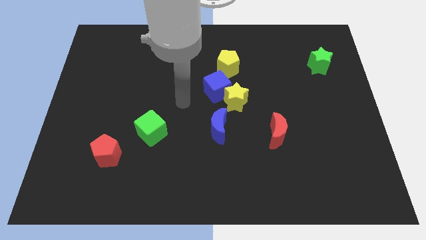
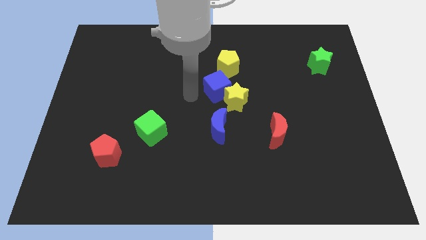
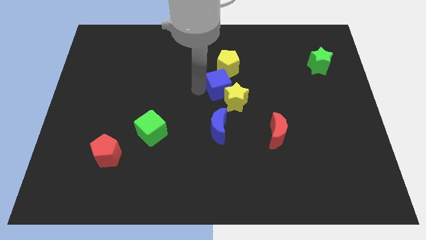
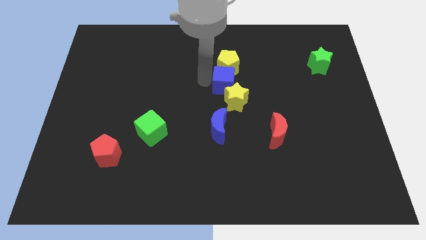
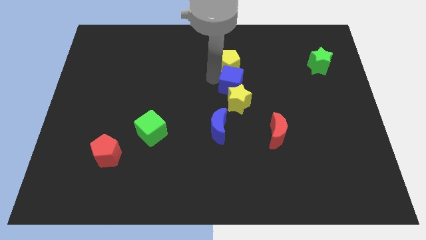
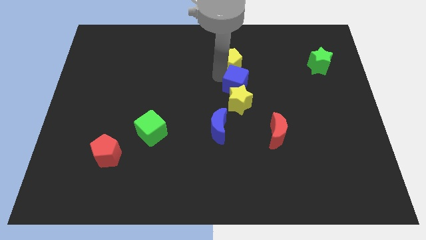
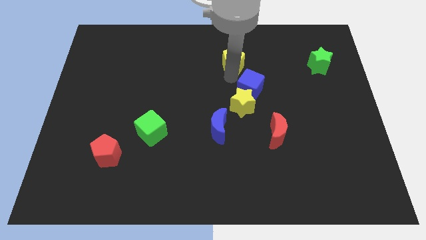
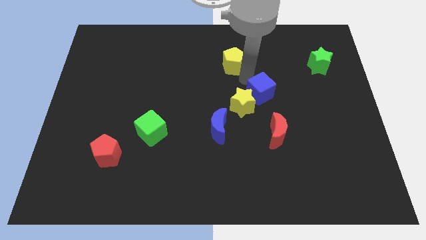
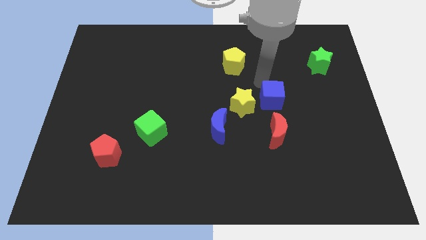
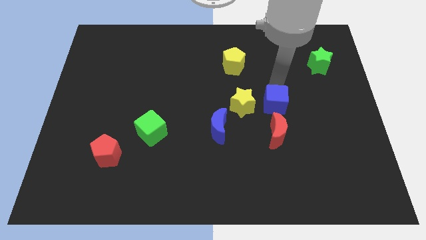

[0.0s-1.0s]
move the blue cube away from the yellow star and yellow pentagon

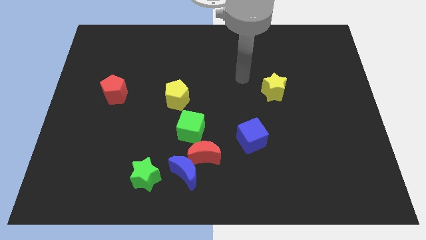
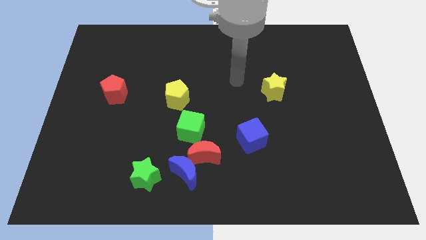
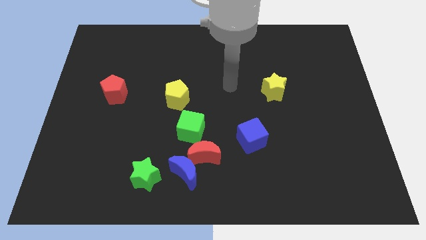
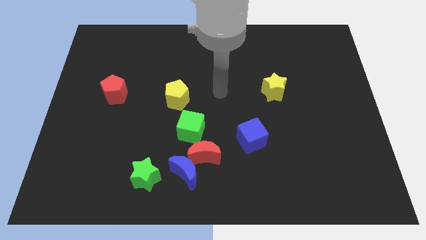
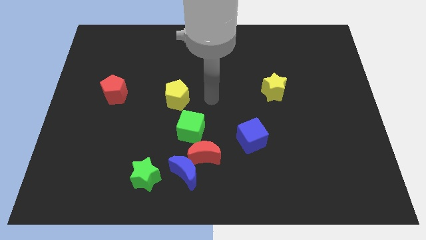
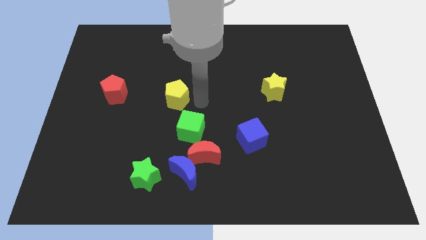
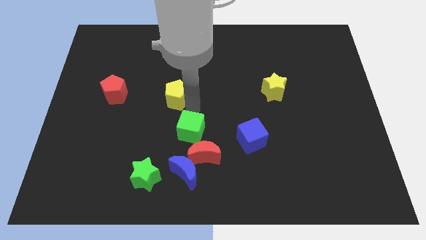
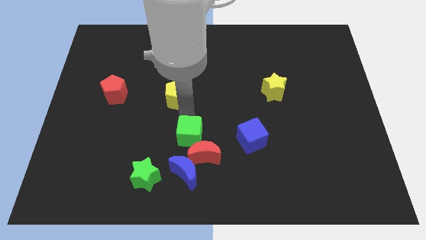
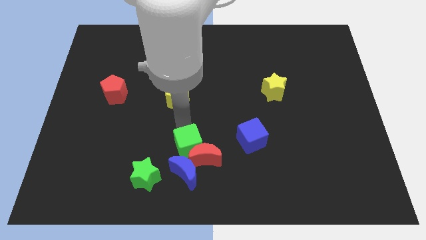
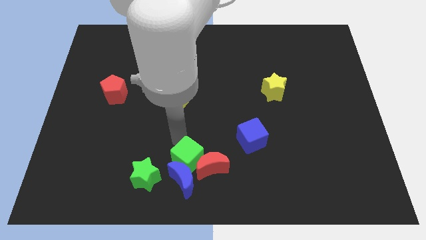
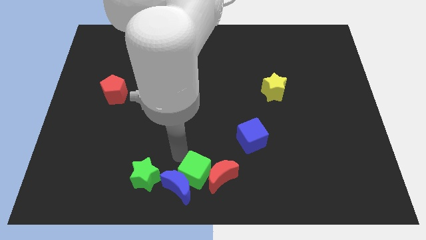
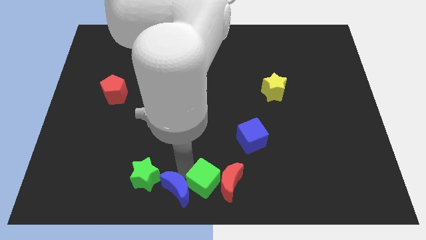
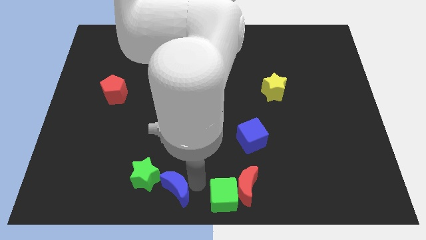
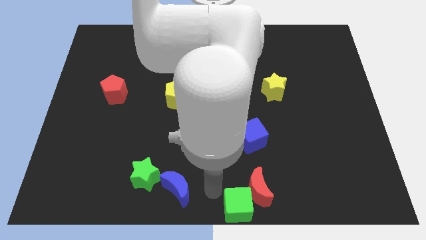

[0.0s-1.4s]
separate the red moon from the blue moon and green cube

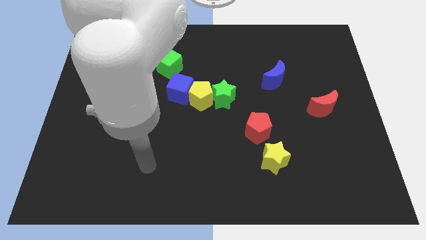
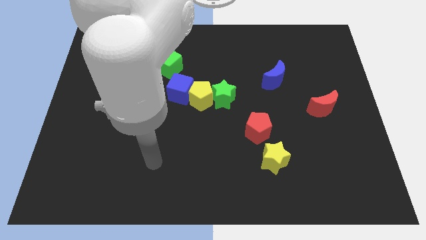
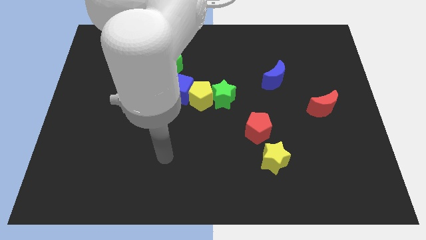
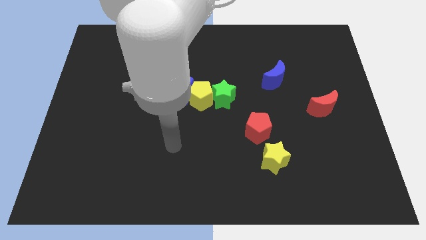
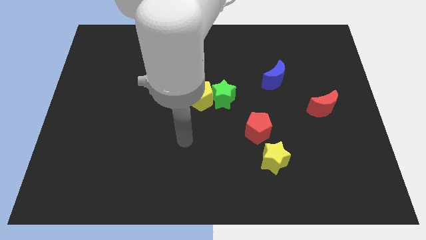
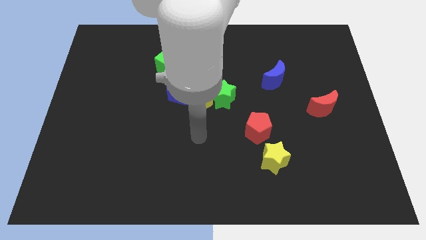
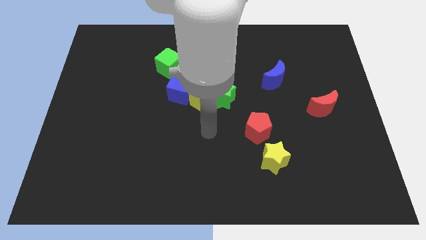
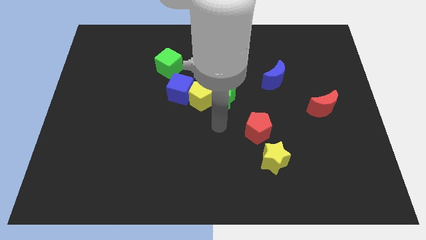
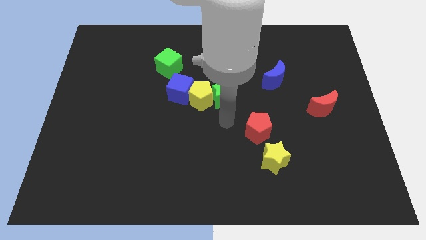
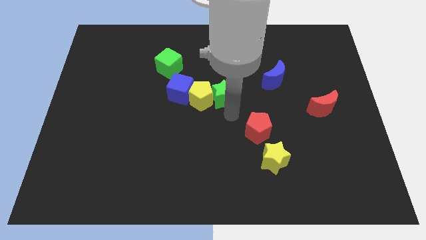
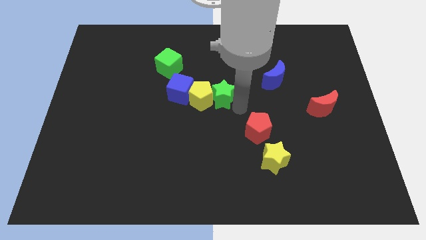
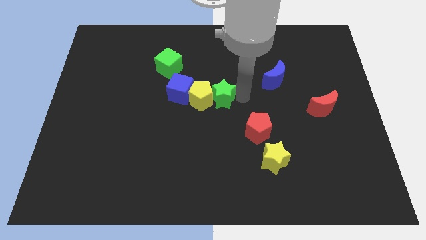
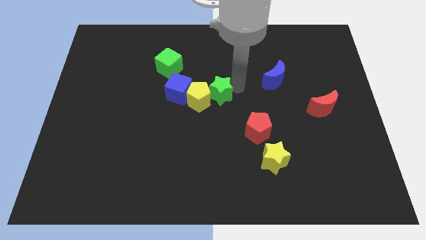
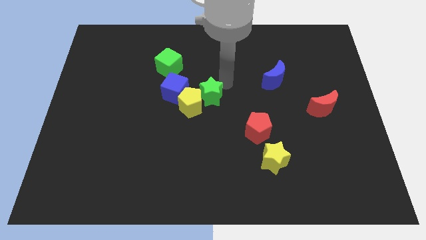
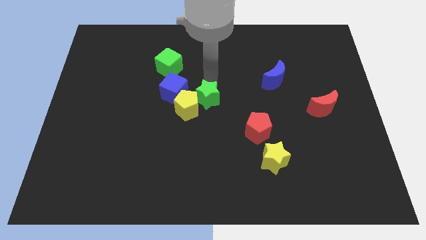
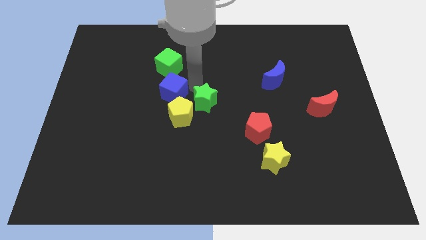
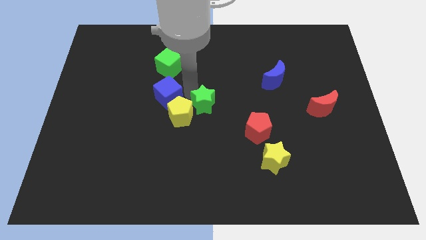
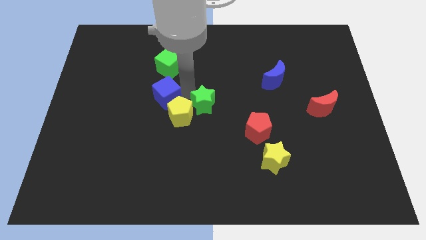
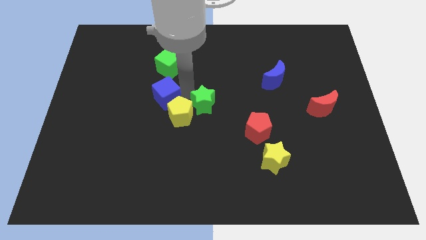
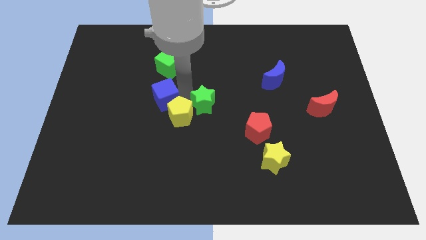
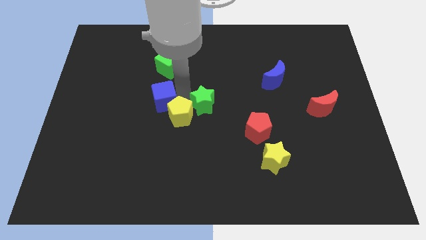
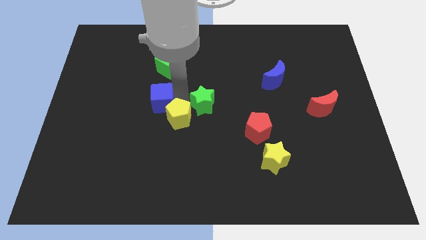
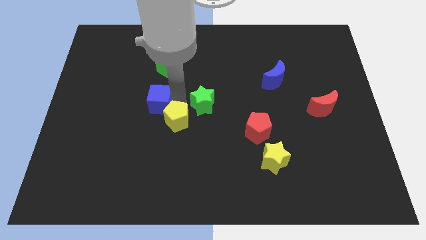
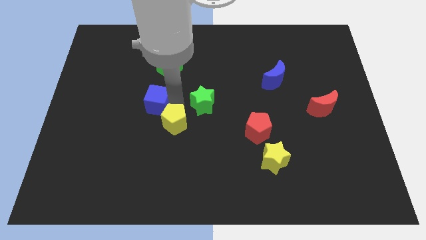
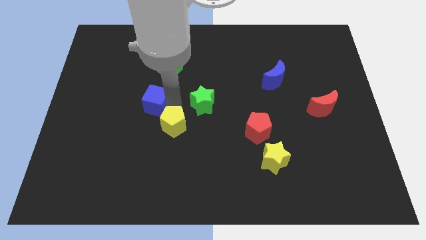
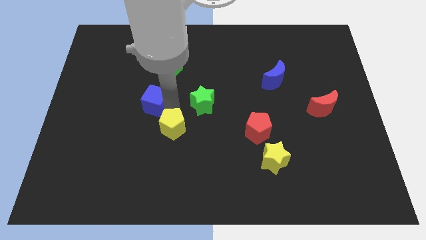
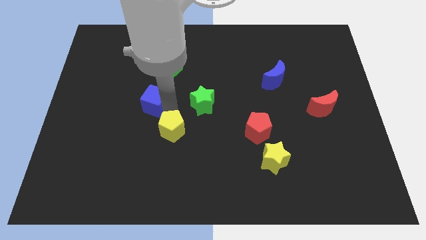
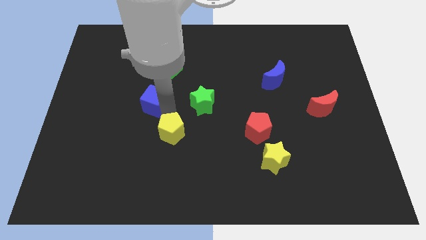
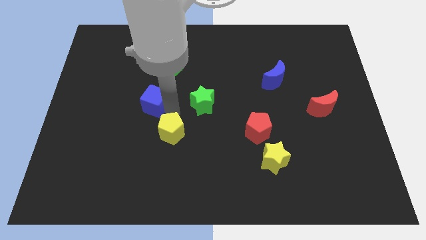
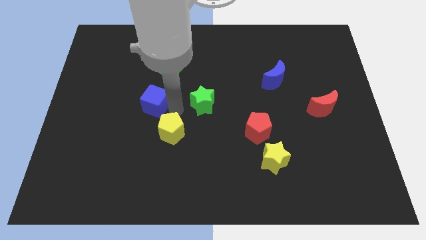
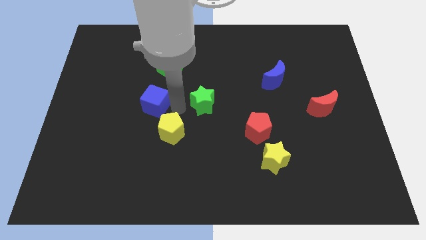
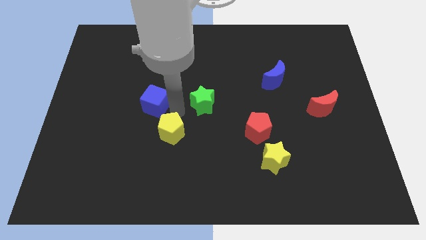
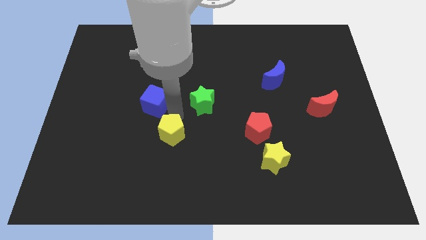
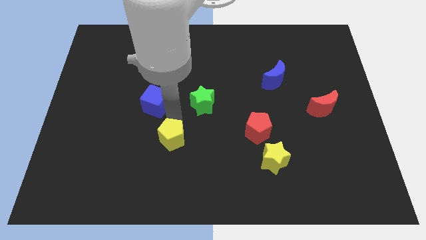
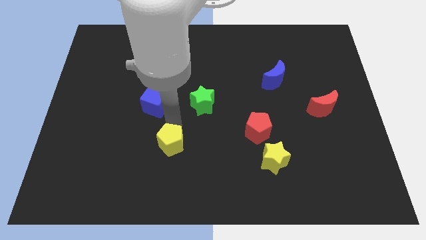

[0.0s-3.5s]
move the yellow pentagon away from the blue cube and green star

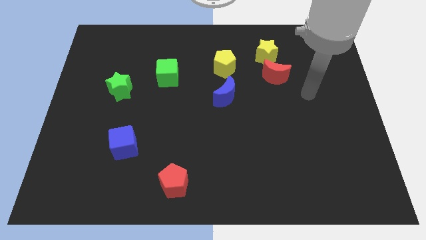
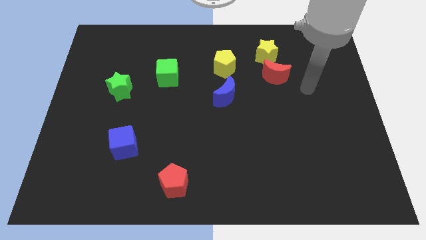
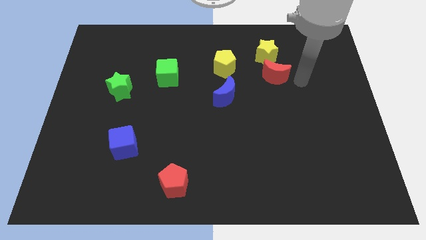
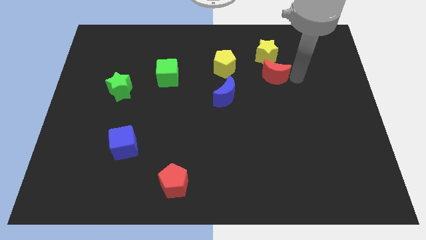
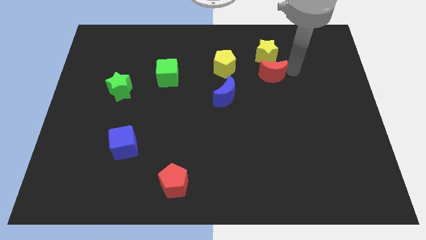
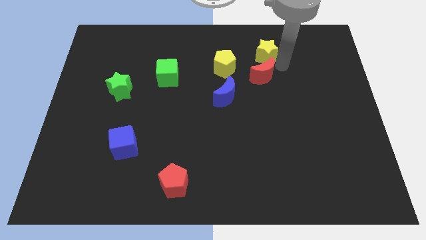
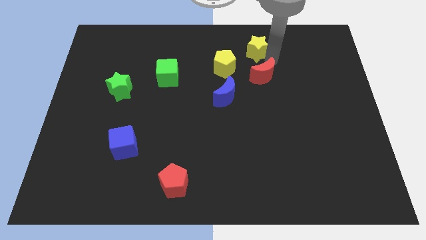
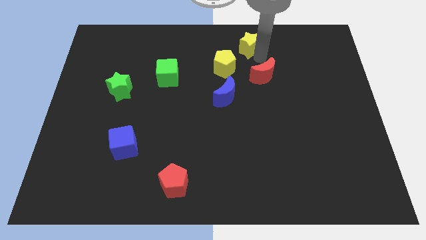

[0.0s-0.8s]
pull the red moon apart from the yellow star

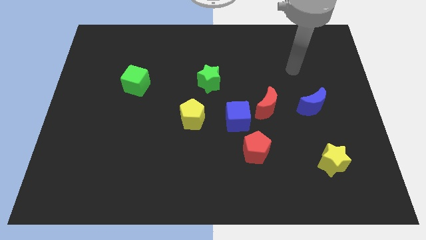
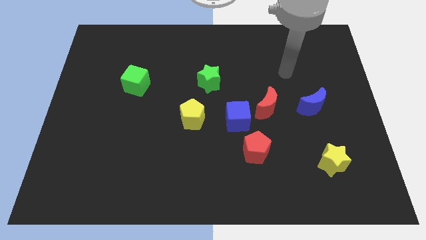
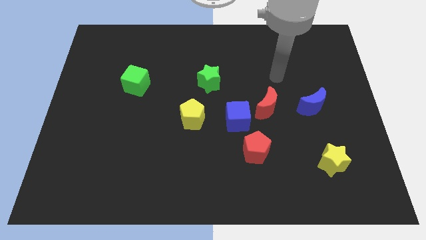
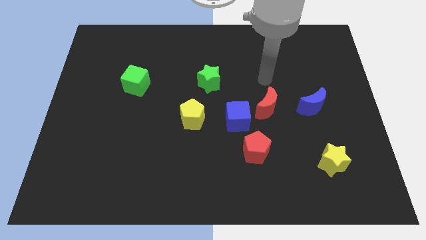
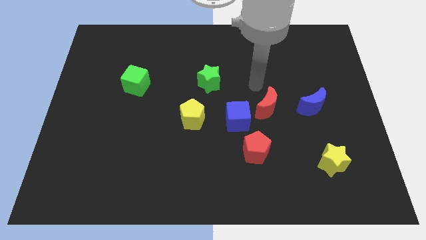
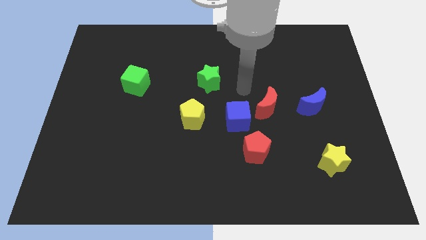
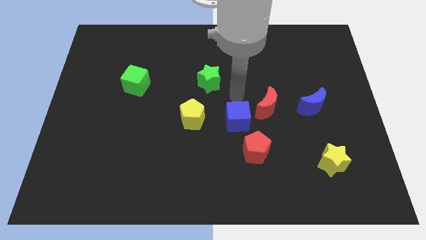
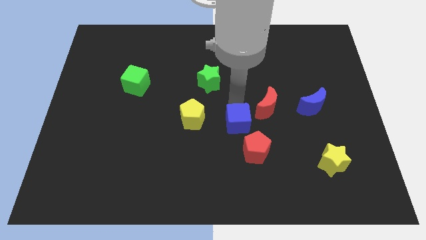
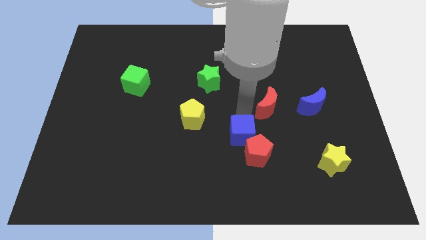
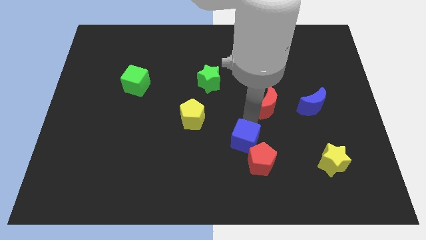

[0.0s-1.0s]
move the red moon away from the blue cube

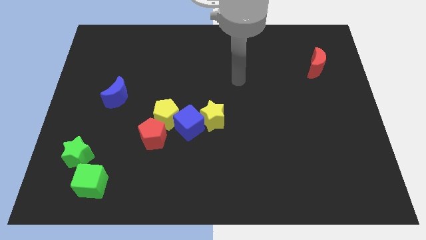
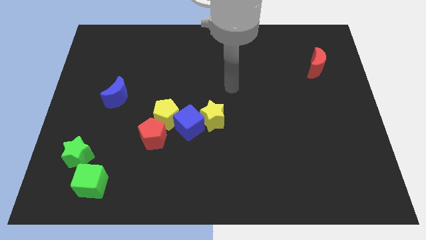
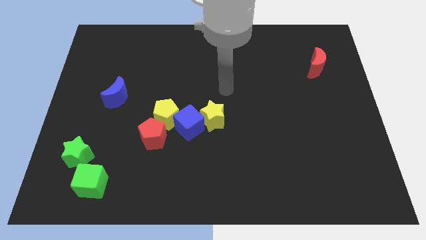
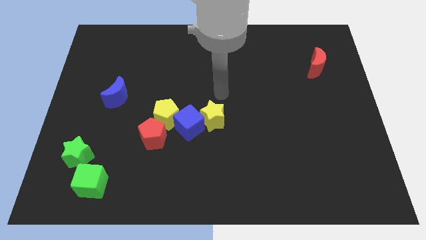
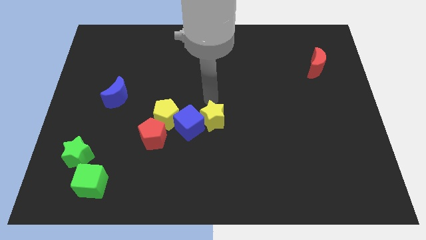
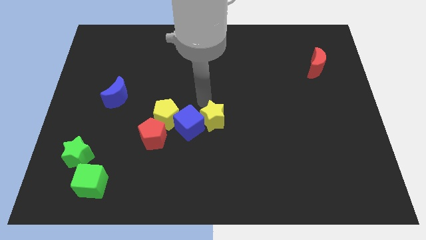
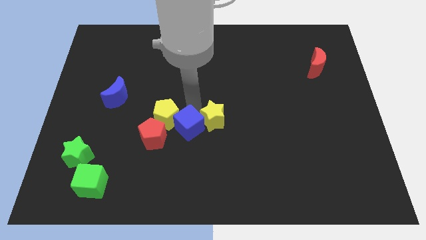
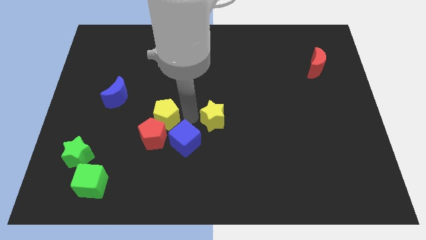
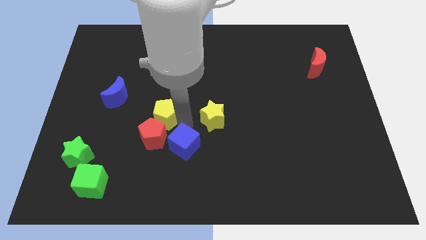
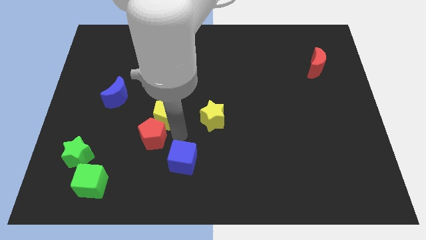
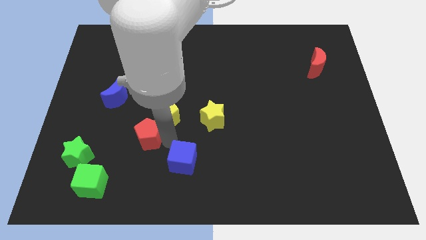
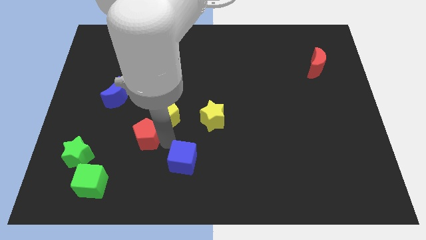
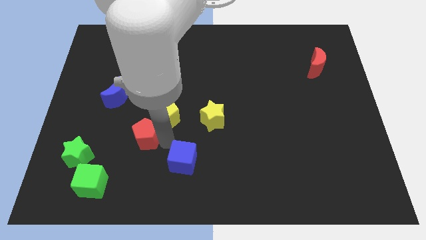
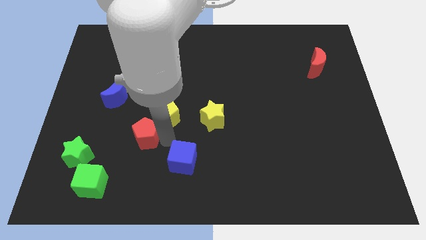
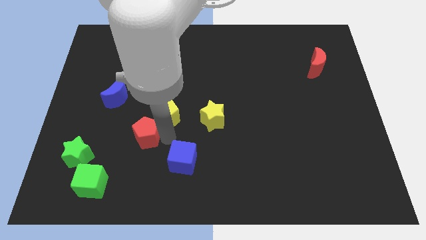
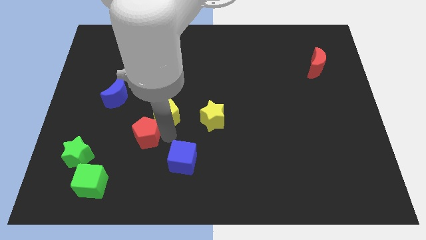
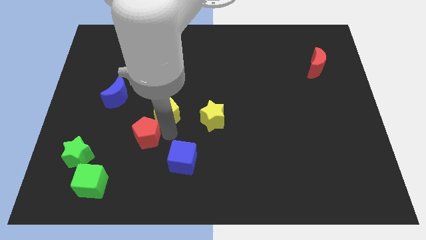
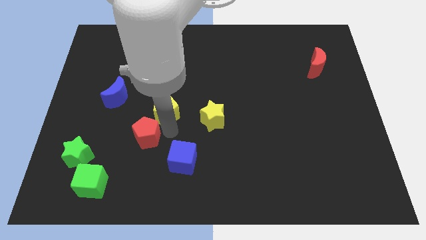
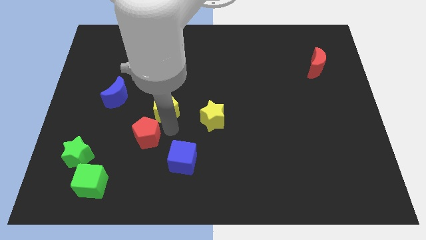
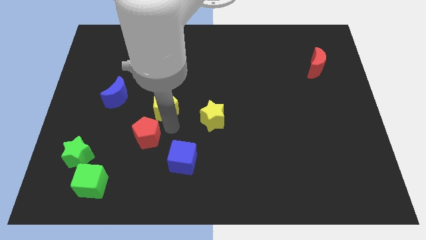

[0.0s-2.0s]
separate the yellow pentagon from the blue cube and red pentagon
